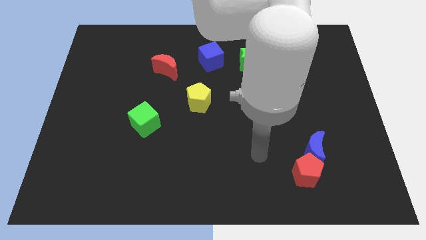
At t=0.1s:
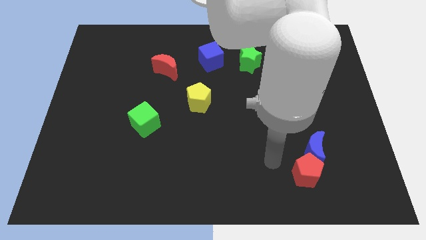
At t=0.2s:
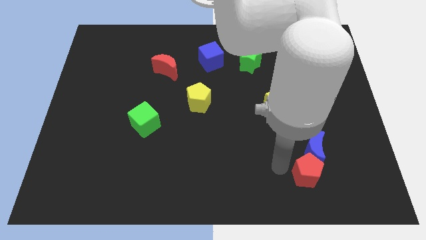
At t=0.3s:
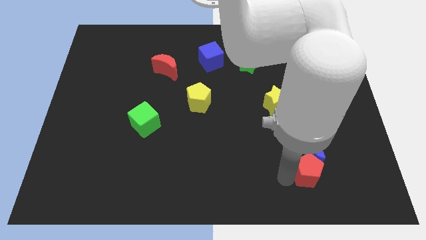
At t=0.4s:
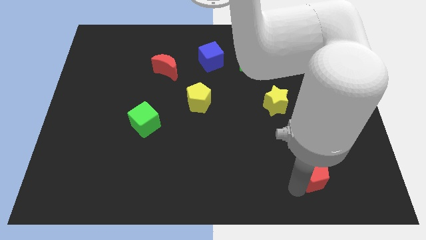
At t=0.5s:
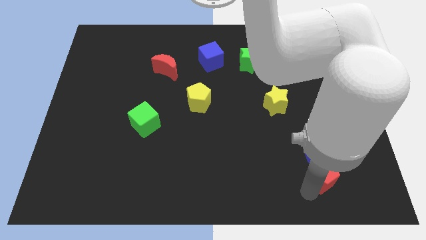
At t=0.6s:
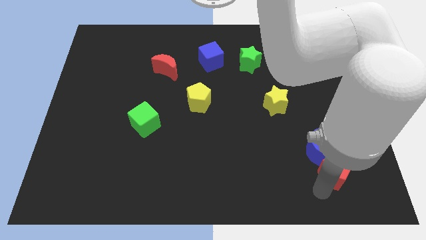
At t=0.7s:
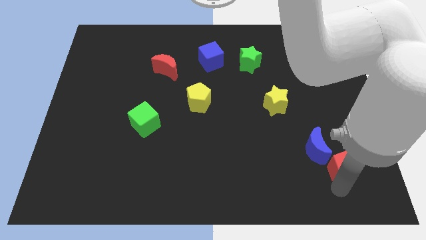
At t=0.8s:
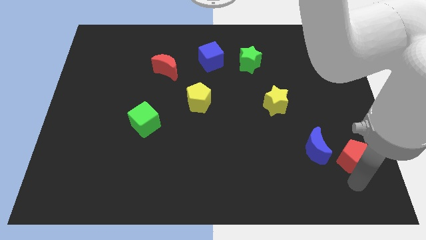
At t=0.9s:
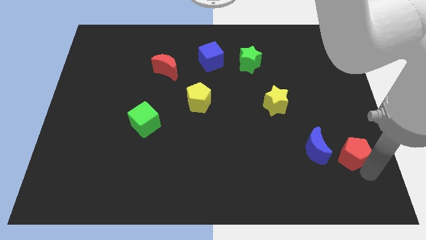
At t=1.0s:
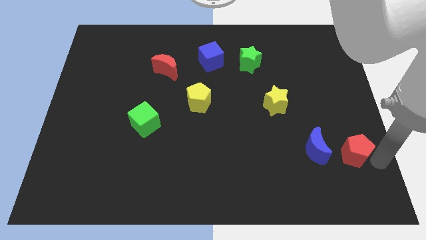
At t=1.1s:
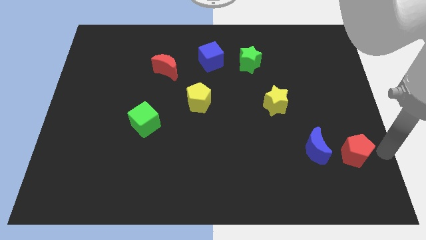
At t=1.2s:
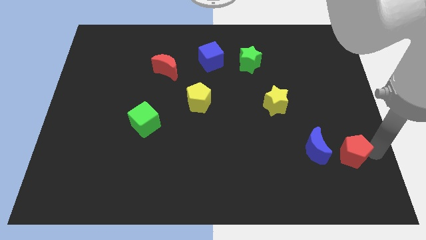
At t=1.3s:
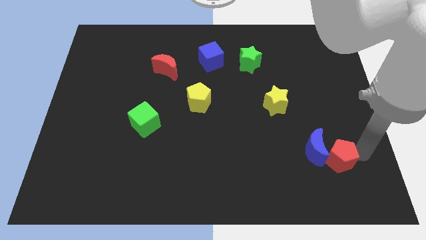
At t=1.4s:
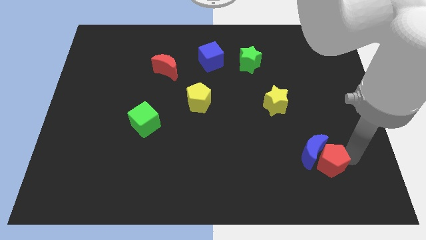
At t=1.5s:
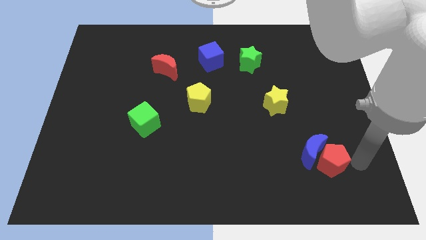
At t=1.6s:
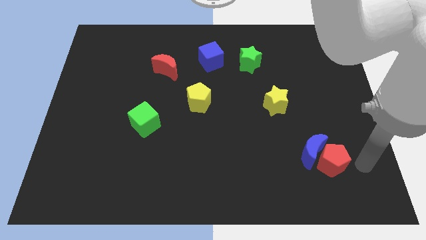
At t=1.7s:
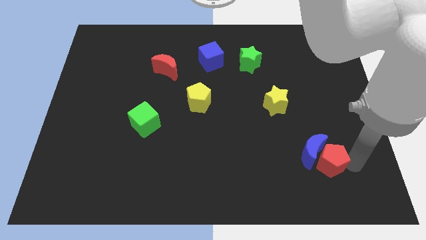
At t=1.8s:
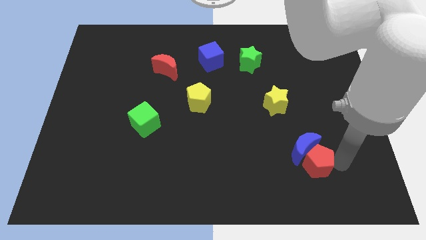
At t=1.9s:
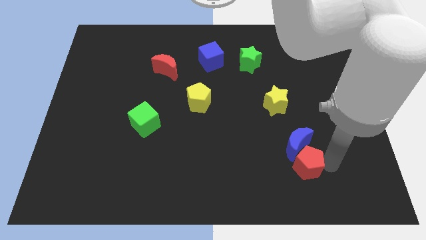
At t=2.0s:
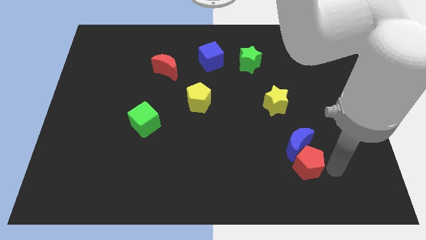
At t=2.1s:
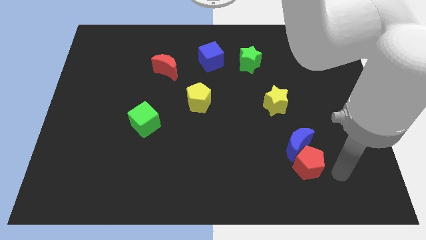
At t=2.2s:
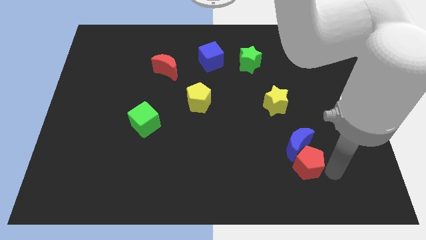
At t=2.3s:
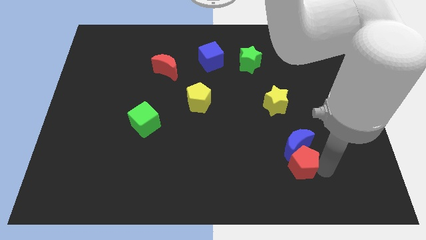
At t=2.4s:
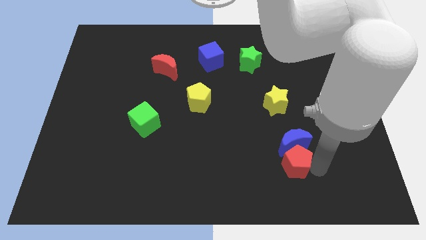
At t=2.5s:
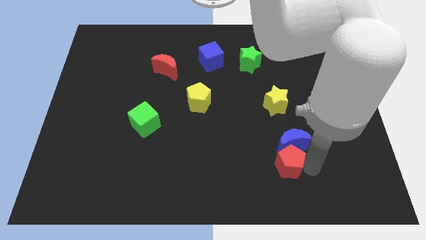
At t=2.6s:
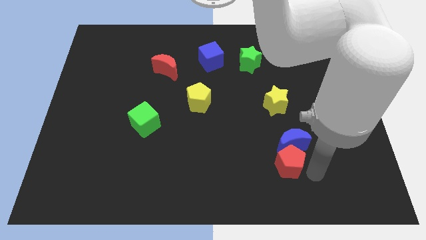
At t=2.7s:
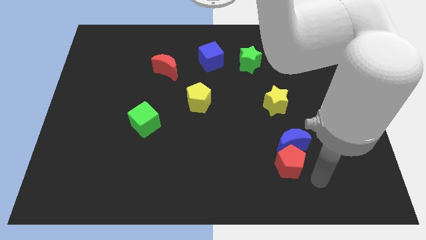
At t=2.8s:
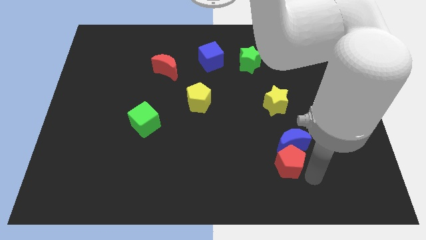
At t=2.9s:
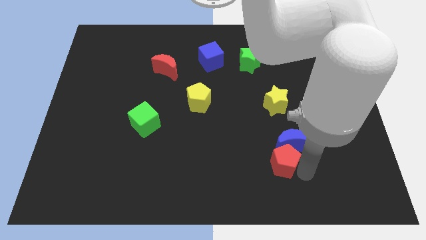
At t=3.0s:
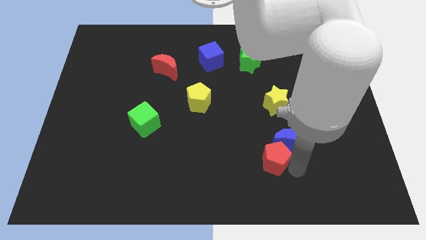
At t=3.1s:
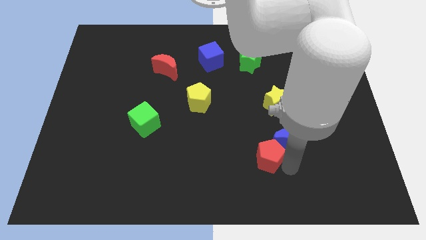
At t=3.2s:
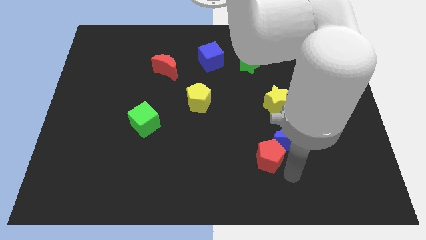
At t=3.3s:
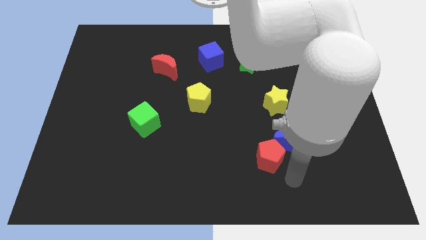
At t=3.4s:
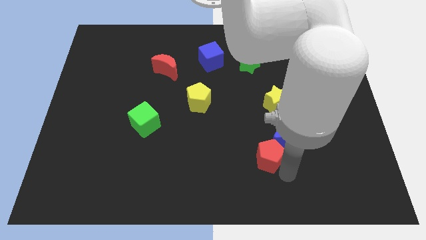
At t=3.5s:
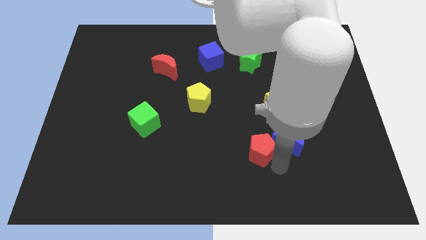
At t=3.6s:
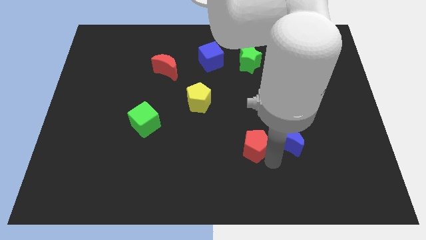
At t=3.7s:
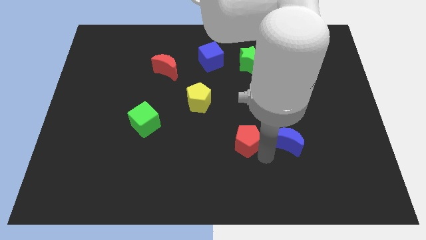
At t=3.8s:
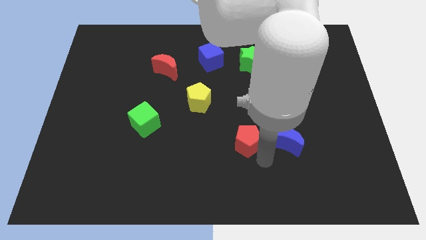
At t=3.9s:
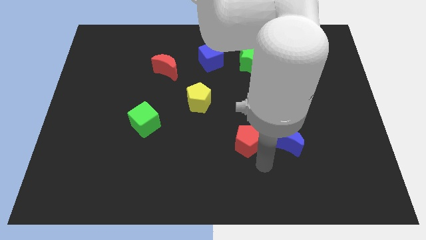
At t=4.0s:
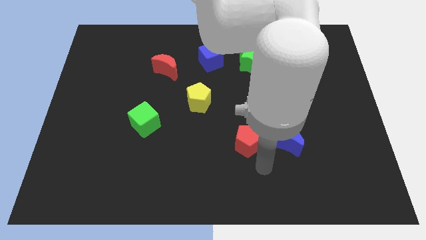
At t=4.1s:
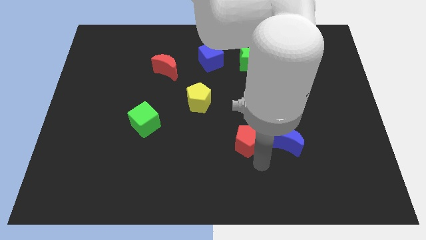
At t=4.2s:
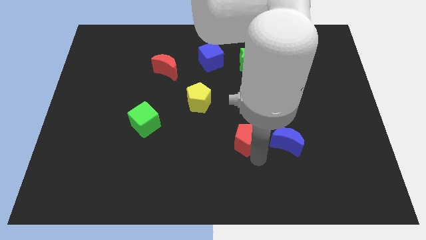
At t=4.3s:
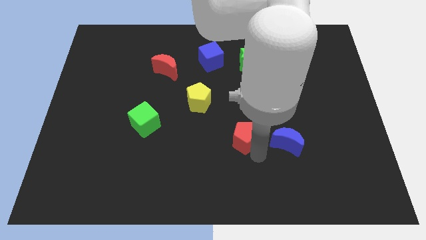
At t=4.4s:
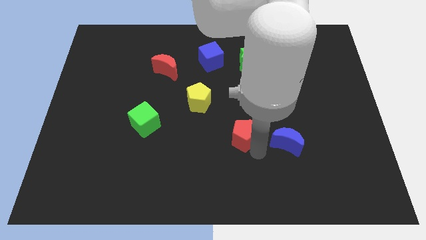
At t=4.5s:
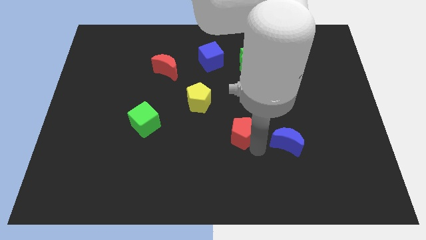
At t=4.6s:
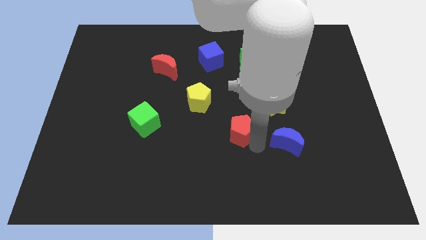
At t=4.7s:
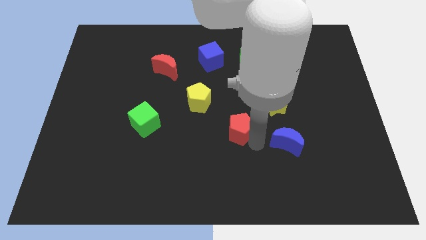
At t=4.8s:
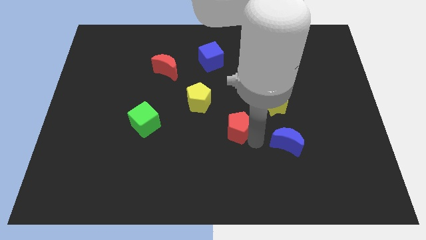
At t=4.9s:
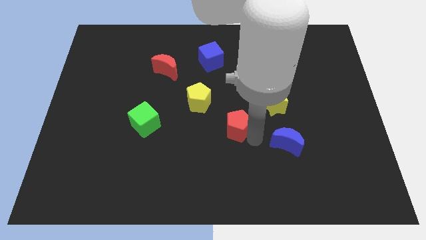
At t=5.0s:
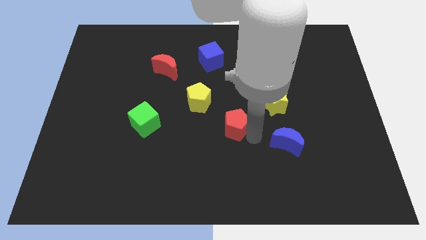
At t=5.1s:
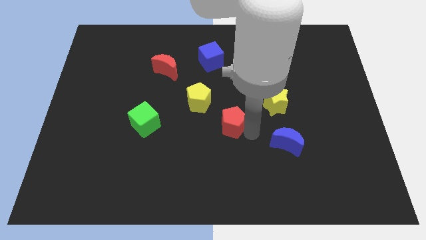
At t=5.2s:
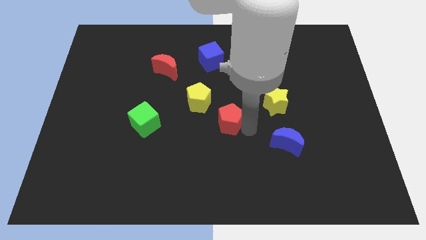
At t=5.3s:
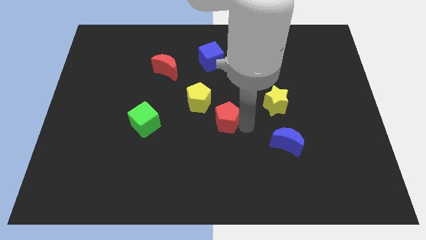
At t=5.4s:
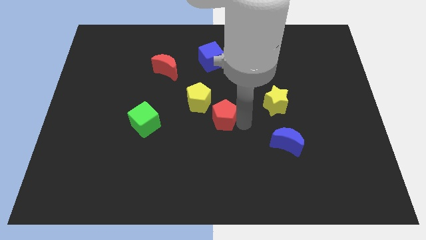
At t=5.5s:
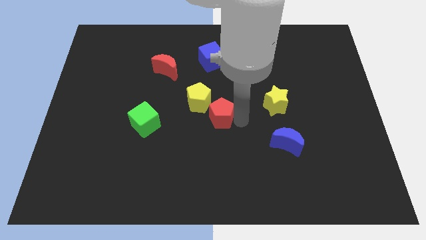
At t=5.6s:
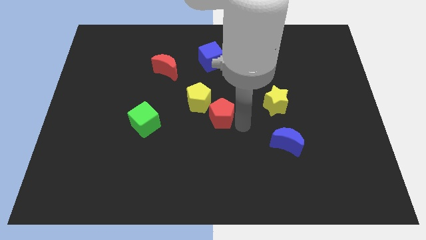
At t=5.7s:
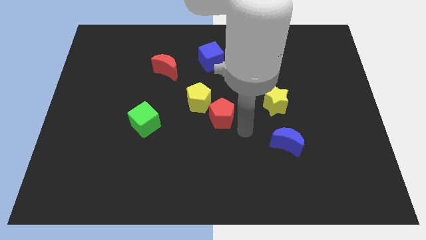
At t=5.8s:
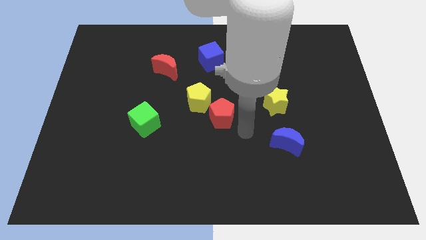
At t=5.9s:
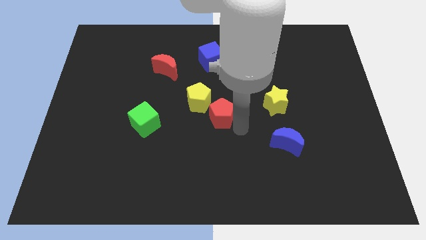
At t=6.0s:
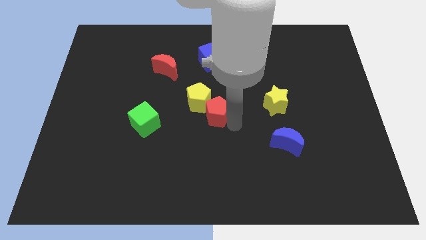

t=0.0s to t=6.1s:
slide the red pentagon close to the yellow pentagon

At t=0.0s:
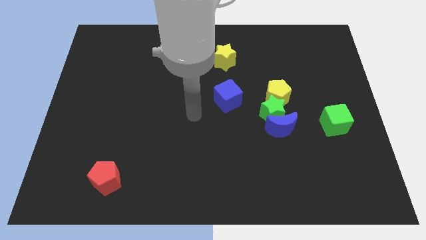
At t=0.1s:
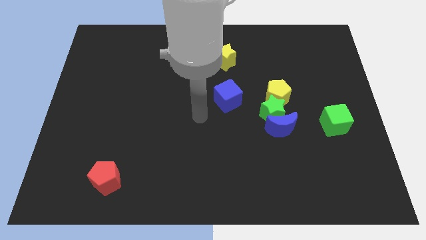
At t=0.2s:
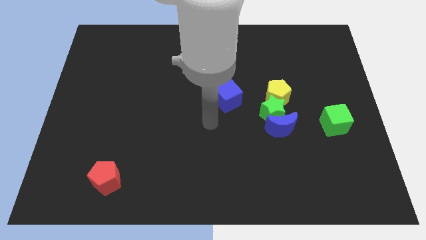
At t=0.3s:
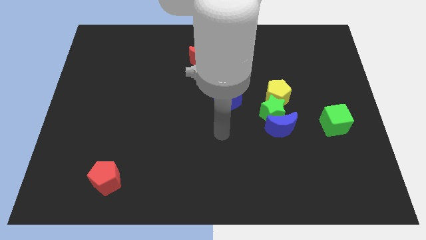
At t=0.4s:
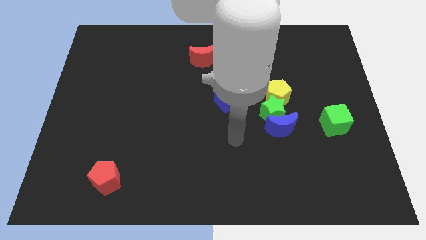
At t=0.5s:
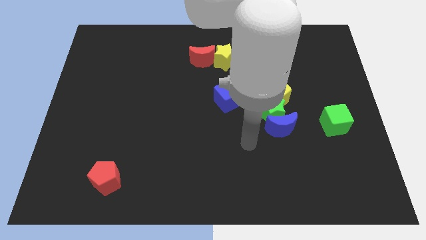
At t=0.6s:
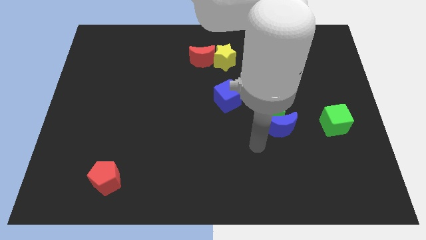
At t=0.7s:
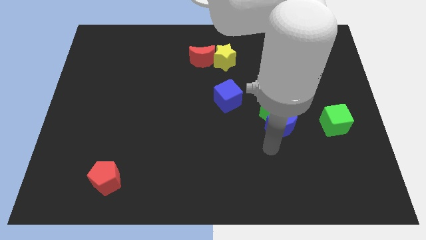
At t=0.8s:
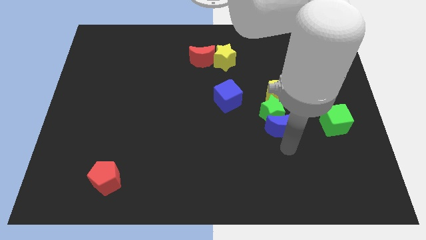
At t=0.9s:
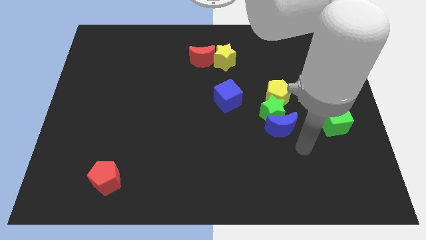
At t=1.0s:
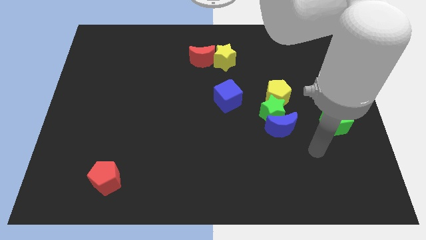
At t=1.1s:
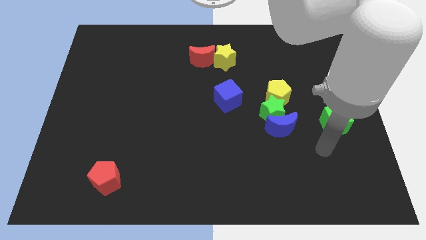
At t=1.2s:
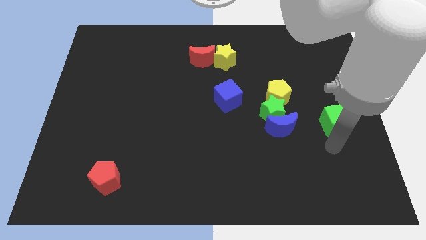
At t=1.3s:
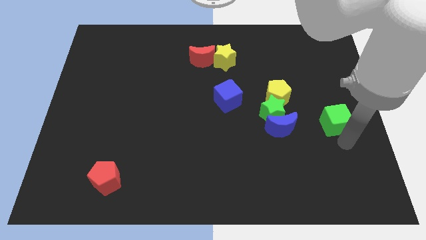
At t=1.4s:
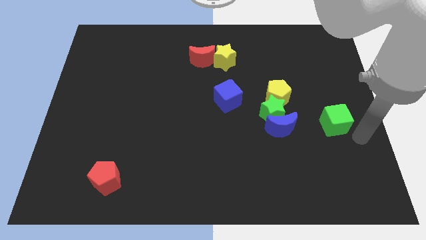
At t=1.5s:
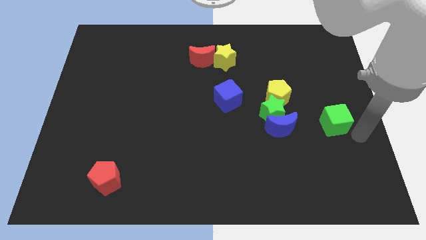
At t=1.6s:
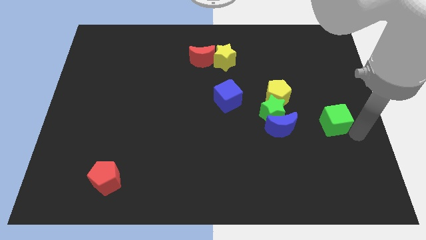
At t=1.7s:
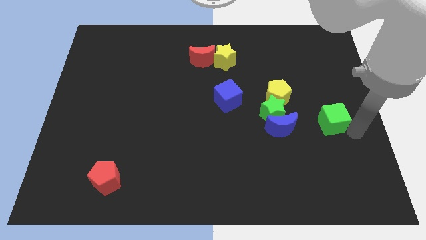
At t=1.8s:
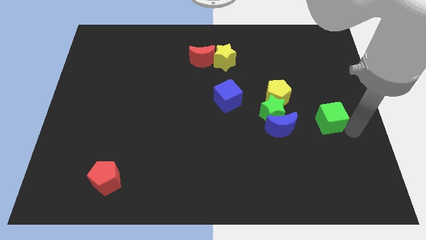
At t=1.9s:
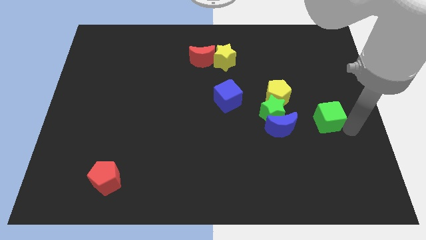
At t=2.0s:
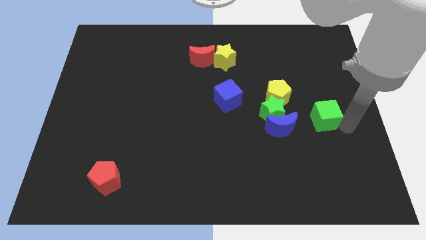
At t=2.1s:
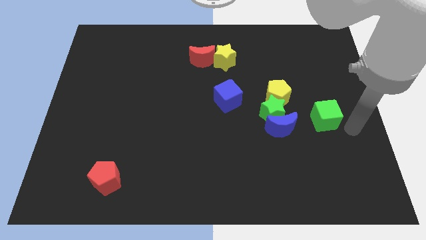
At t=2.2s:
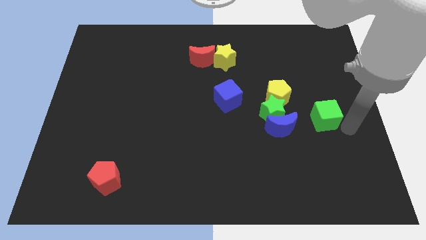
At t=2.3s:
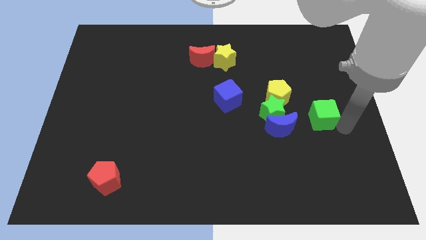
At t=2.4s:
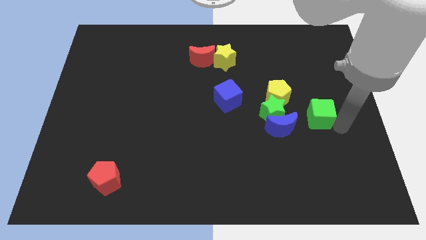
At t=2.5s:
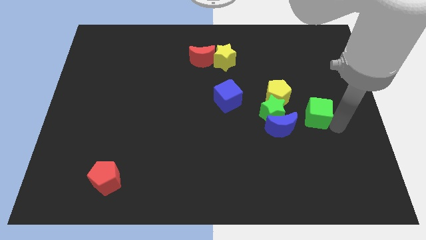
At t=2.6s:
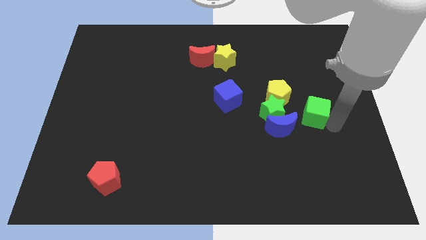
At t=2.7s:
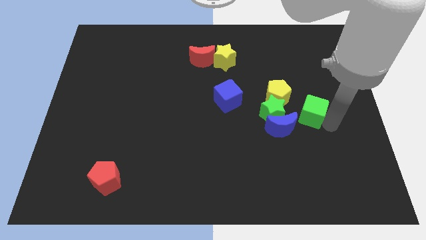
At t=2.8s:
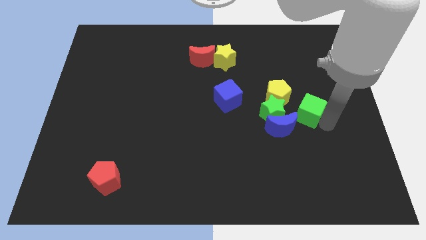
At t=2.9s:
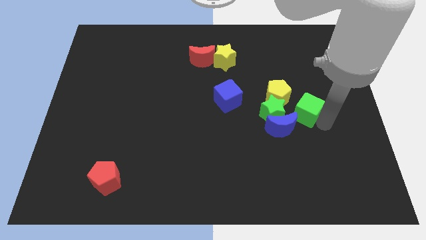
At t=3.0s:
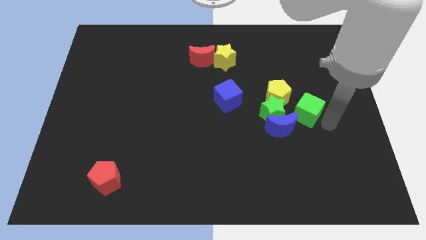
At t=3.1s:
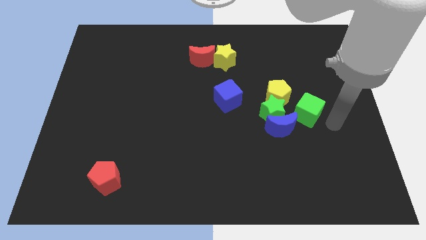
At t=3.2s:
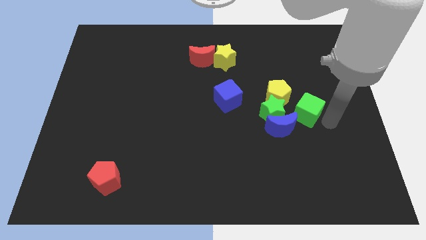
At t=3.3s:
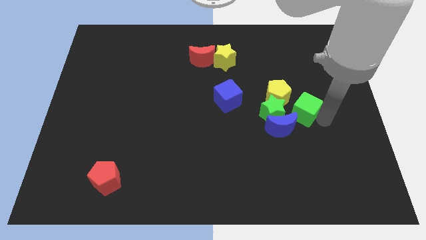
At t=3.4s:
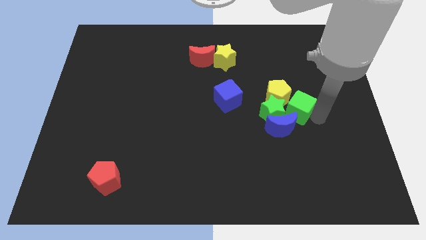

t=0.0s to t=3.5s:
move the green cube to the yellow pentagon
